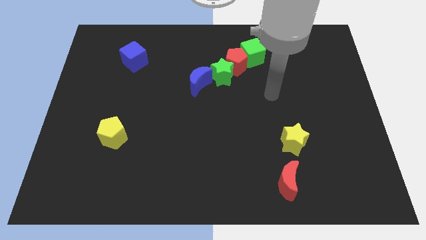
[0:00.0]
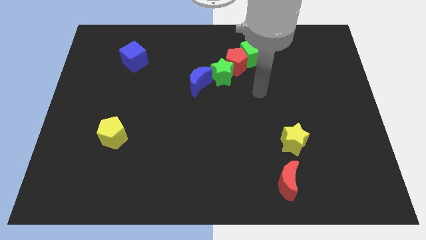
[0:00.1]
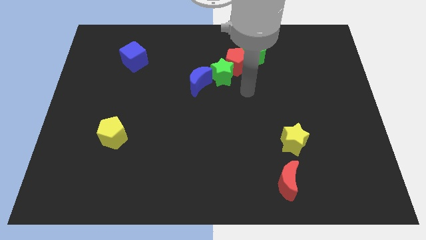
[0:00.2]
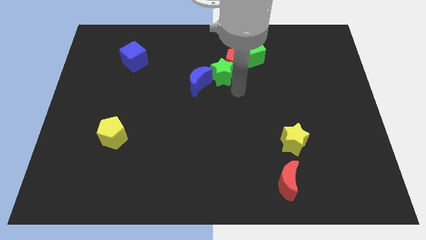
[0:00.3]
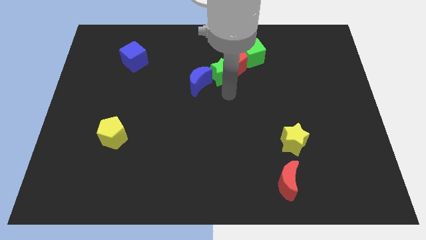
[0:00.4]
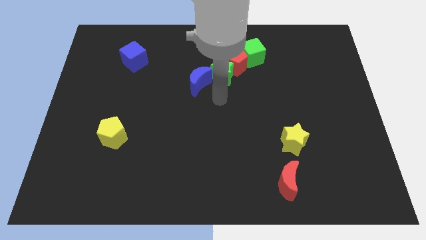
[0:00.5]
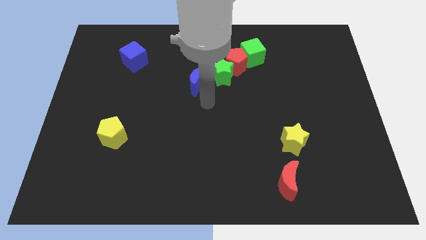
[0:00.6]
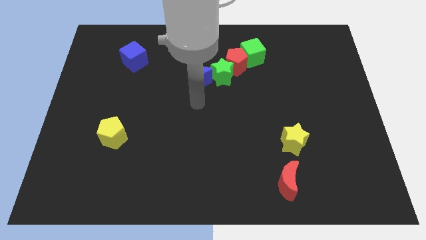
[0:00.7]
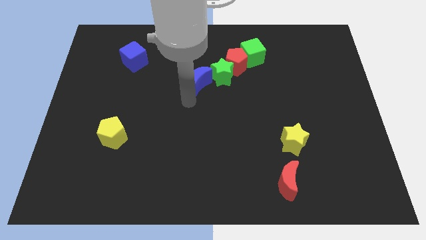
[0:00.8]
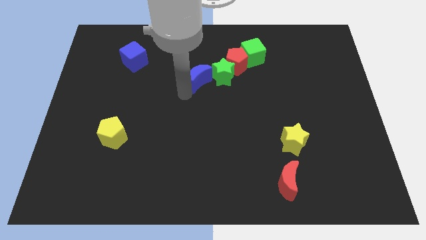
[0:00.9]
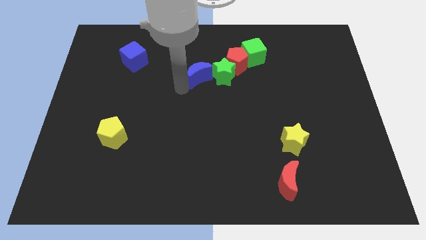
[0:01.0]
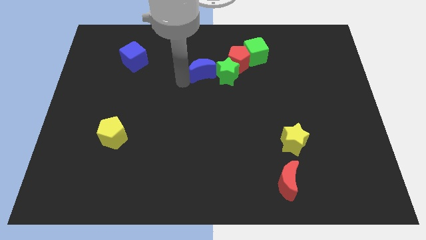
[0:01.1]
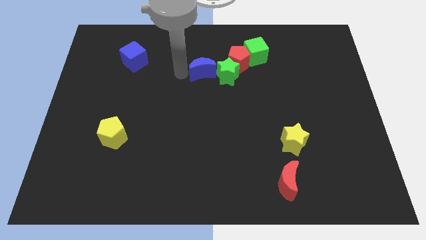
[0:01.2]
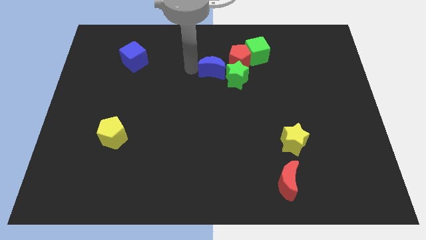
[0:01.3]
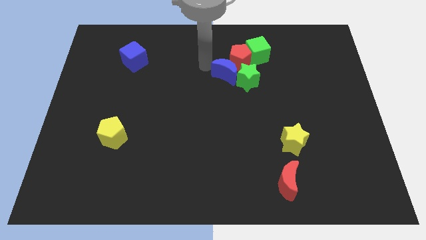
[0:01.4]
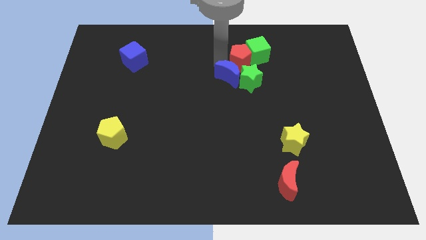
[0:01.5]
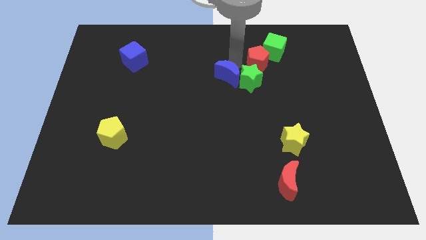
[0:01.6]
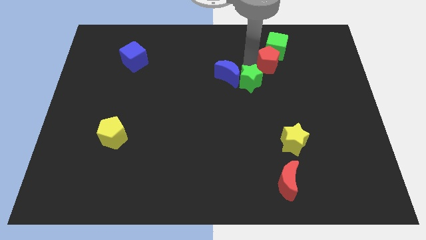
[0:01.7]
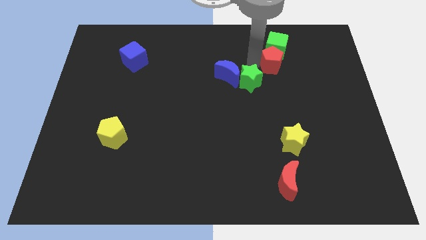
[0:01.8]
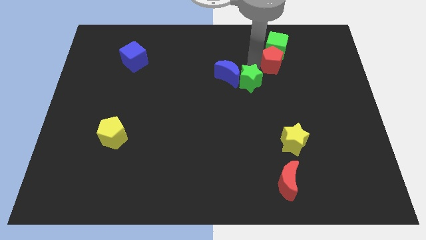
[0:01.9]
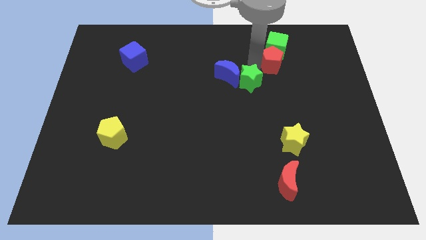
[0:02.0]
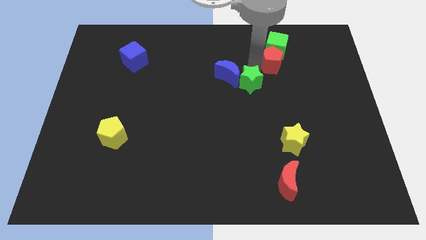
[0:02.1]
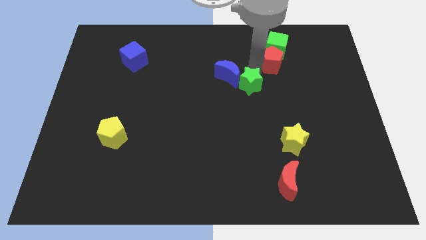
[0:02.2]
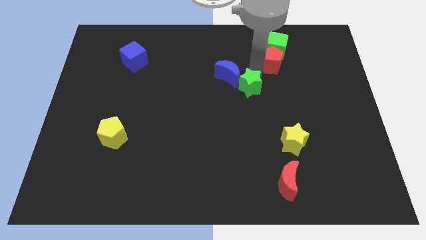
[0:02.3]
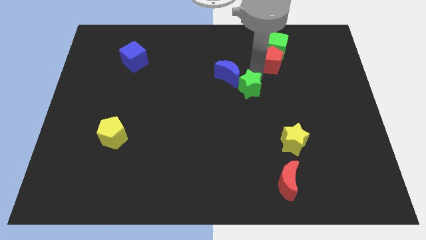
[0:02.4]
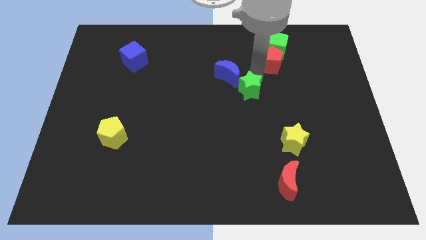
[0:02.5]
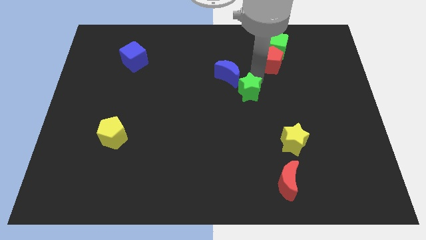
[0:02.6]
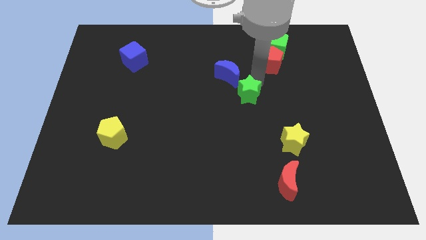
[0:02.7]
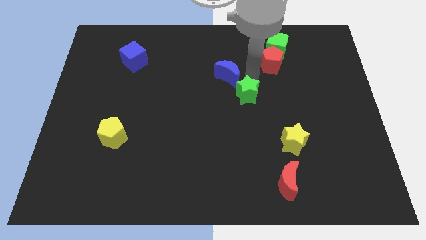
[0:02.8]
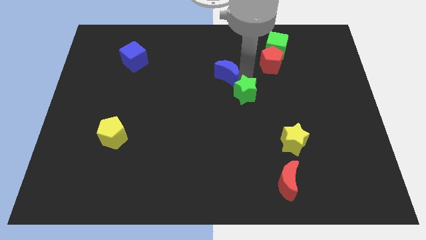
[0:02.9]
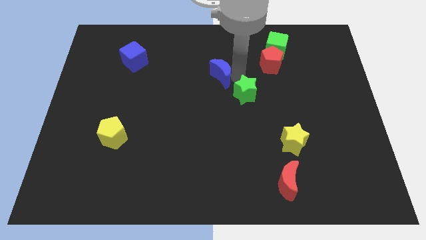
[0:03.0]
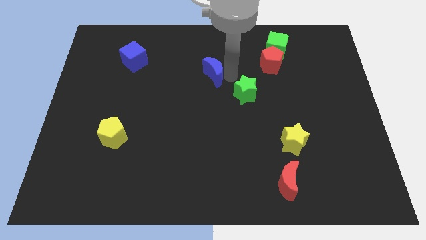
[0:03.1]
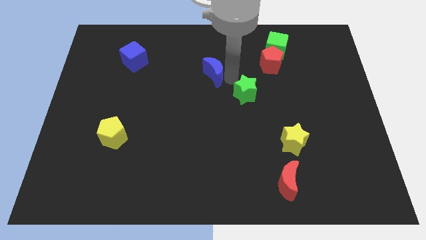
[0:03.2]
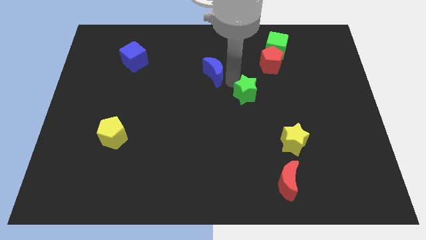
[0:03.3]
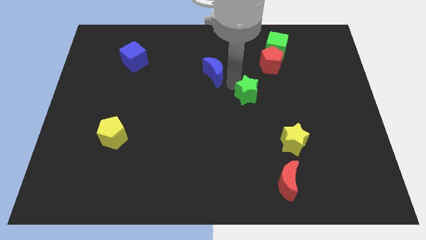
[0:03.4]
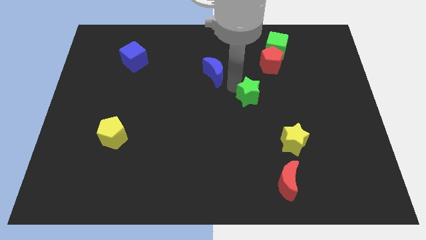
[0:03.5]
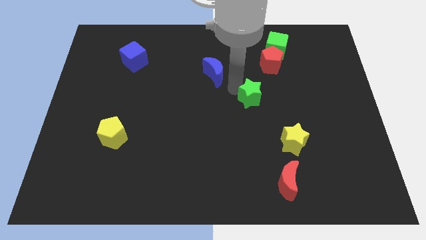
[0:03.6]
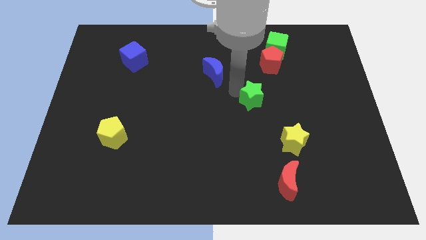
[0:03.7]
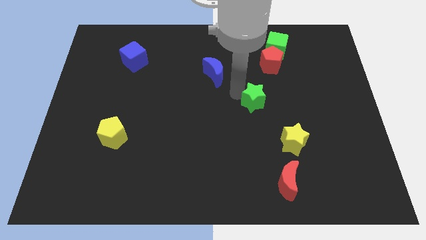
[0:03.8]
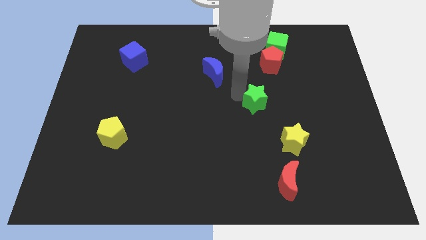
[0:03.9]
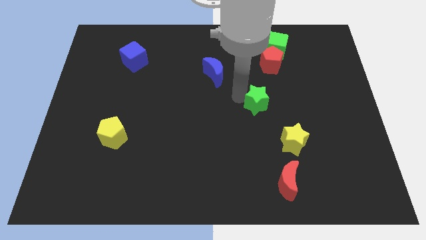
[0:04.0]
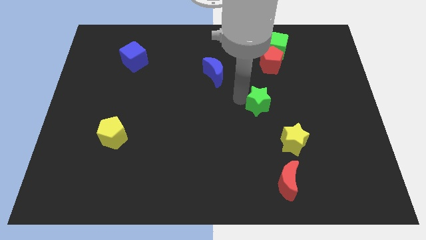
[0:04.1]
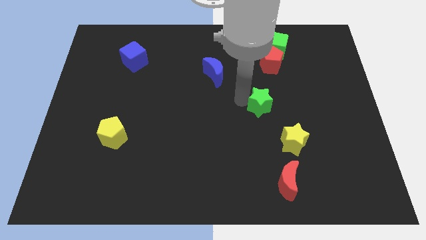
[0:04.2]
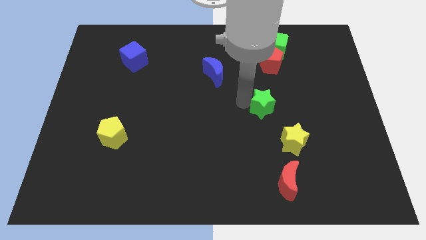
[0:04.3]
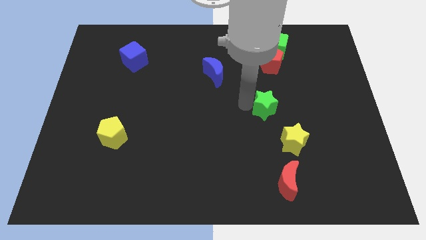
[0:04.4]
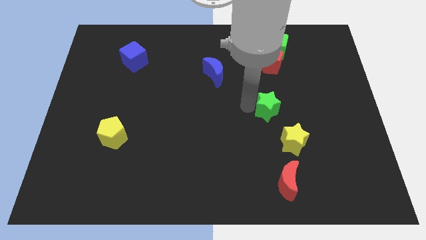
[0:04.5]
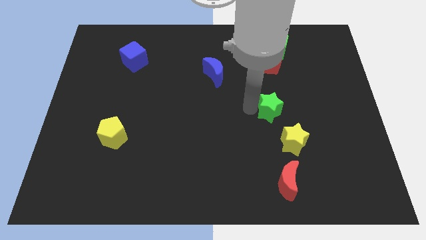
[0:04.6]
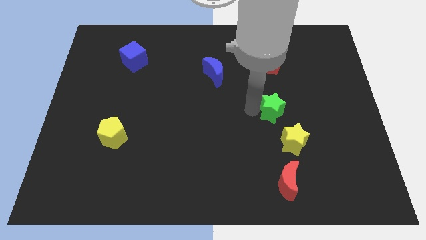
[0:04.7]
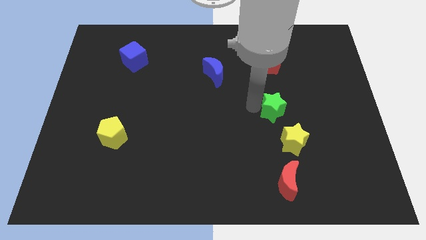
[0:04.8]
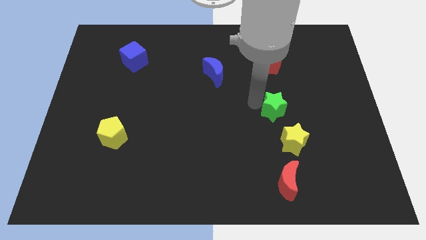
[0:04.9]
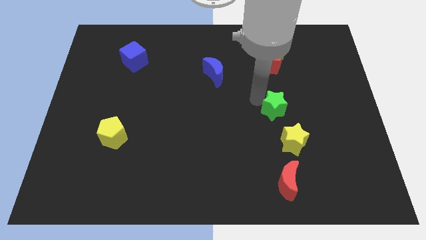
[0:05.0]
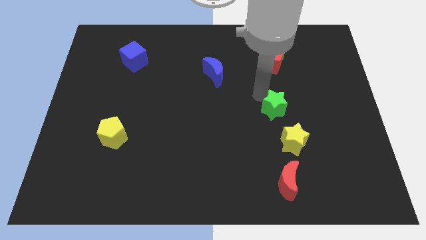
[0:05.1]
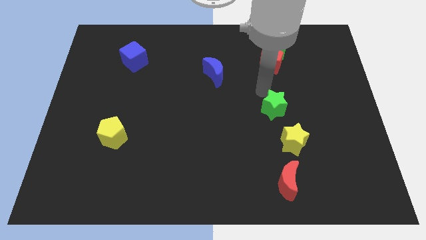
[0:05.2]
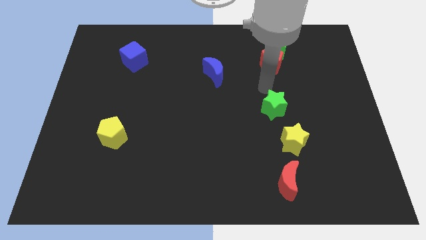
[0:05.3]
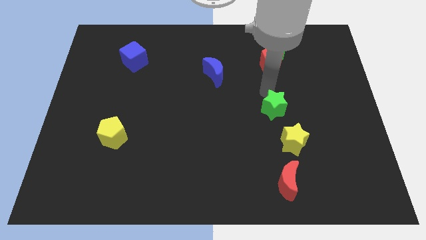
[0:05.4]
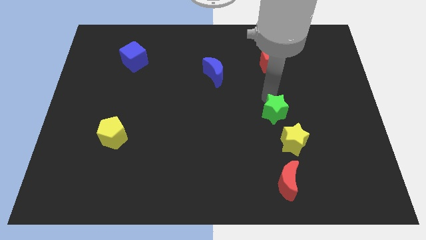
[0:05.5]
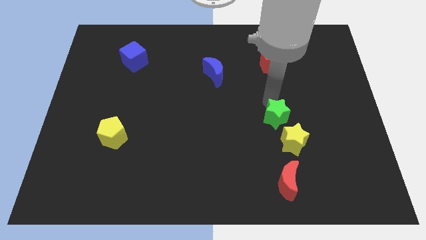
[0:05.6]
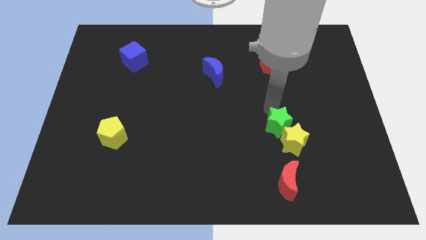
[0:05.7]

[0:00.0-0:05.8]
move the green star to the yellow star

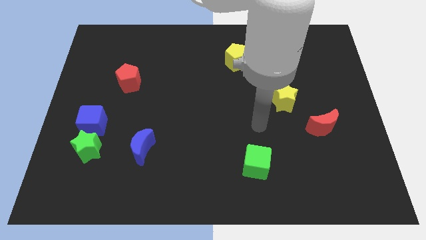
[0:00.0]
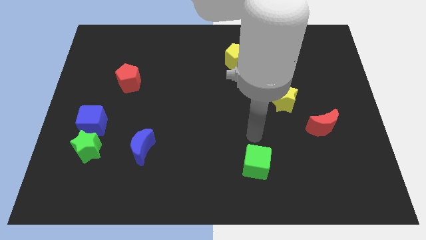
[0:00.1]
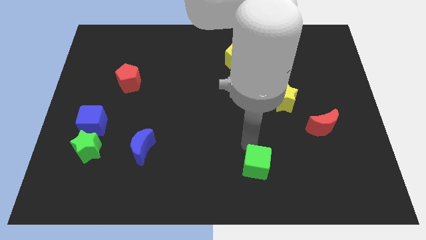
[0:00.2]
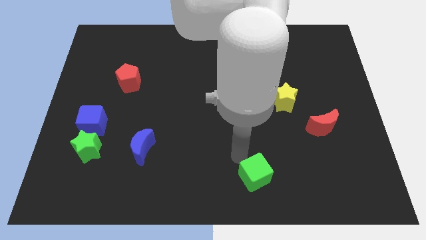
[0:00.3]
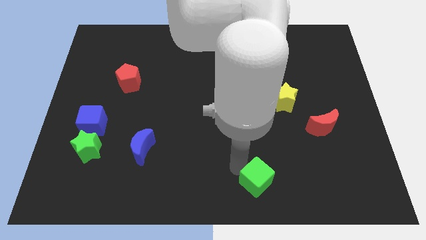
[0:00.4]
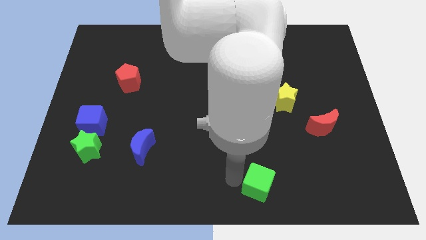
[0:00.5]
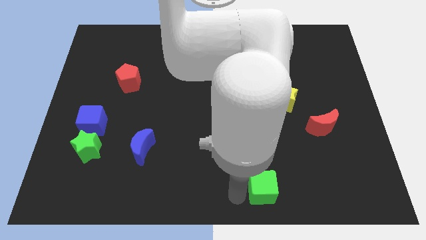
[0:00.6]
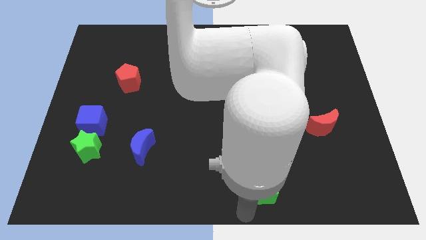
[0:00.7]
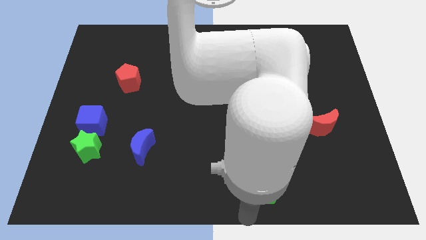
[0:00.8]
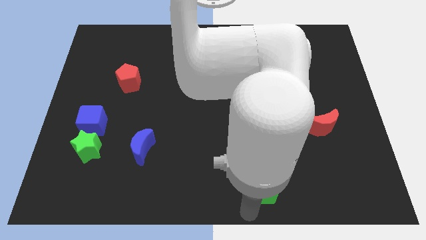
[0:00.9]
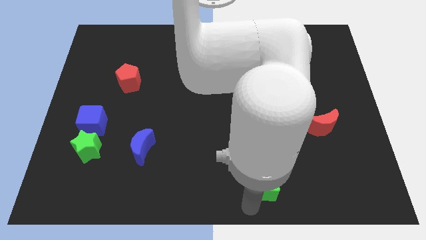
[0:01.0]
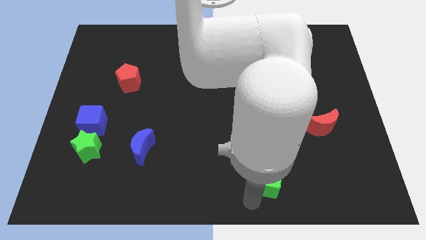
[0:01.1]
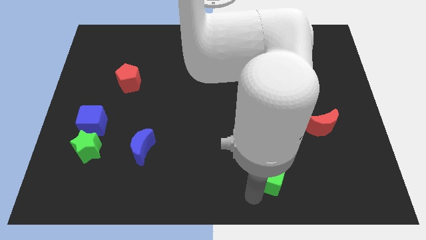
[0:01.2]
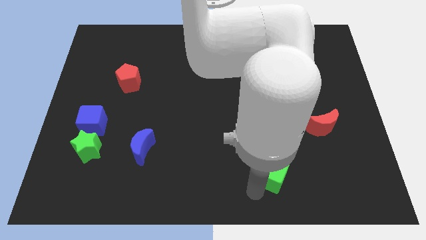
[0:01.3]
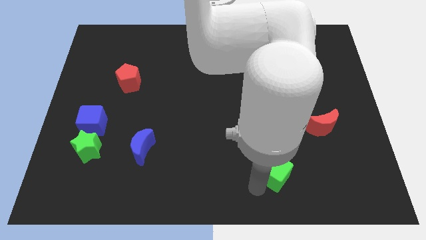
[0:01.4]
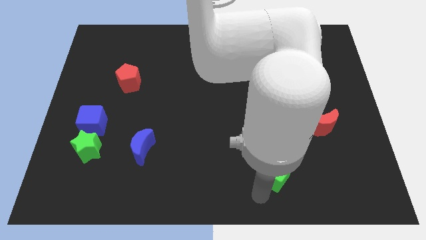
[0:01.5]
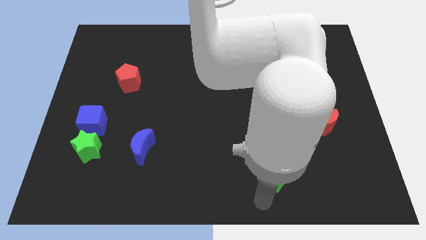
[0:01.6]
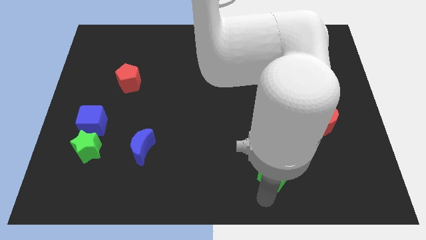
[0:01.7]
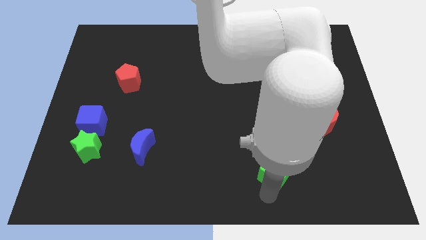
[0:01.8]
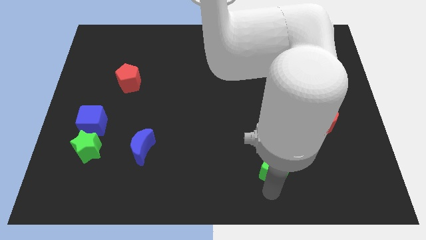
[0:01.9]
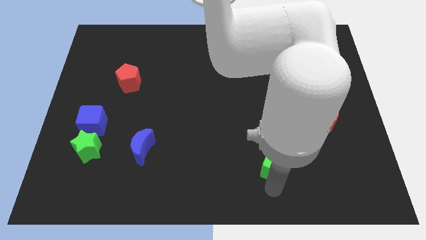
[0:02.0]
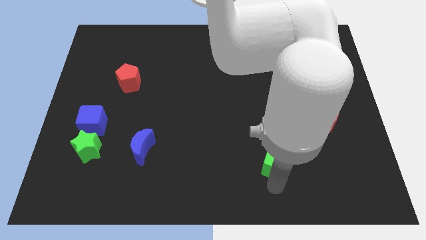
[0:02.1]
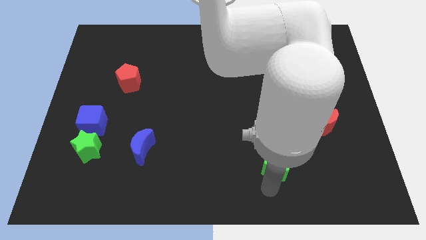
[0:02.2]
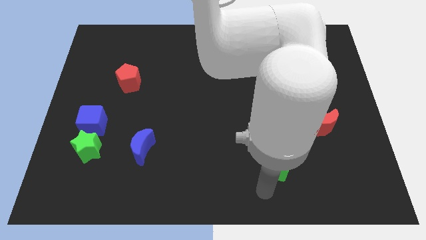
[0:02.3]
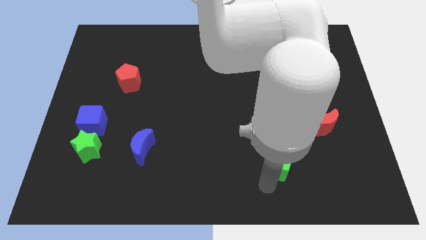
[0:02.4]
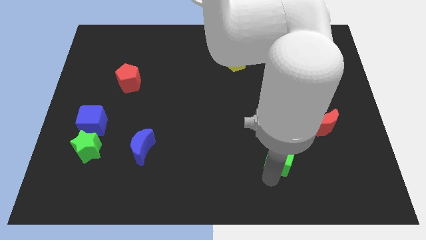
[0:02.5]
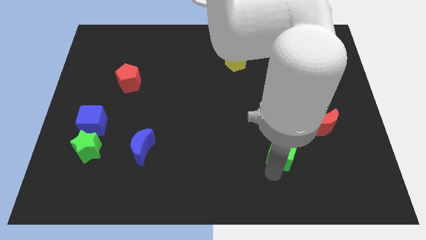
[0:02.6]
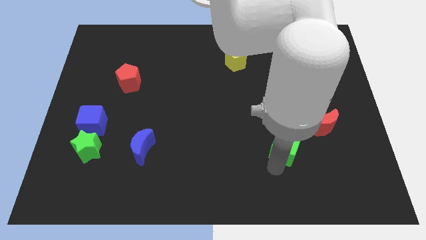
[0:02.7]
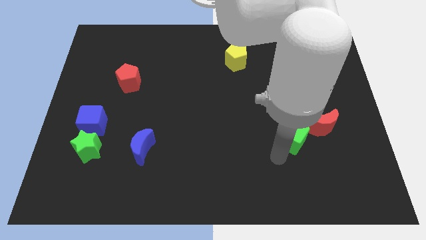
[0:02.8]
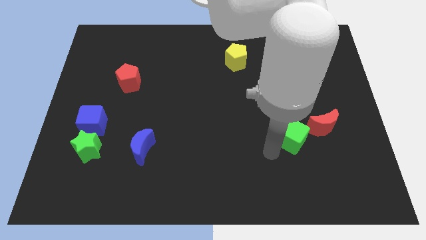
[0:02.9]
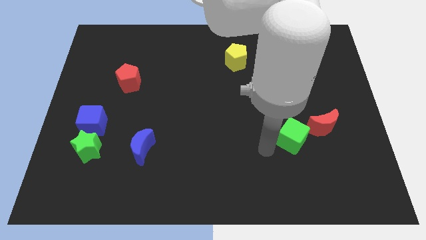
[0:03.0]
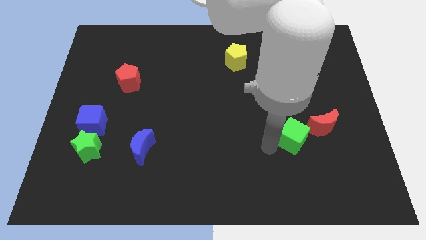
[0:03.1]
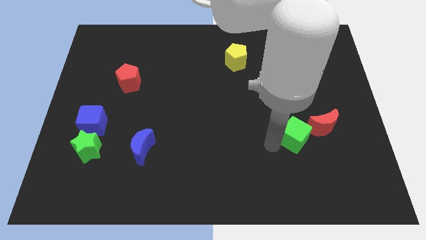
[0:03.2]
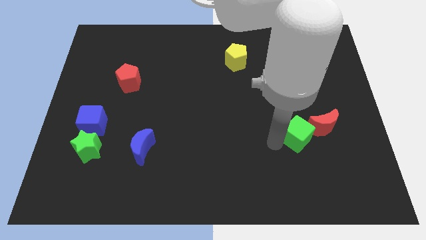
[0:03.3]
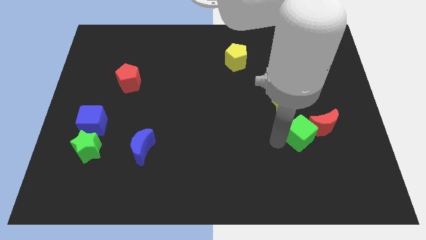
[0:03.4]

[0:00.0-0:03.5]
put the green cube next to the red moon
